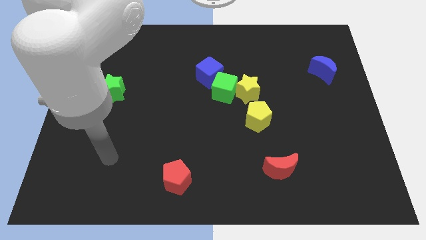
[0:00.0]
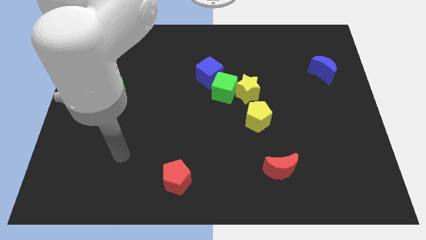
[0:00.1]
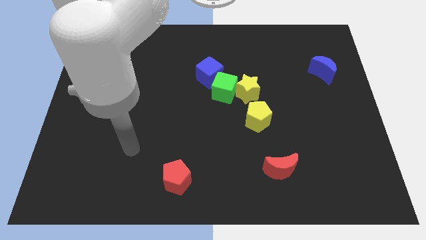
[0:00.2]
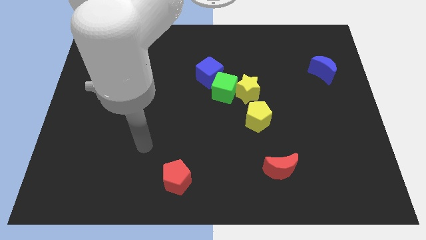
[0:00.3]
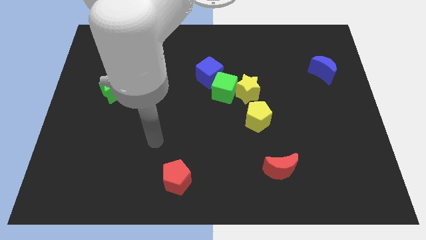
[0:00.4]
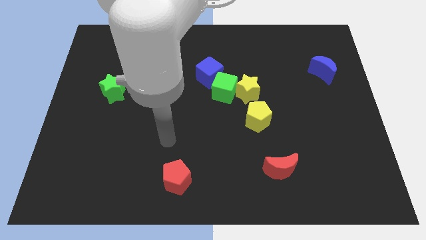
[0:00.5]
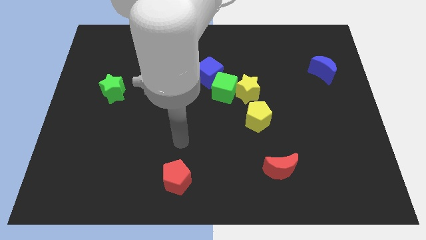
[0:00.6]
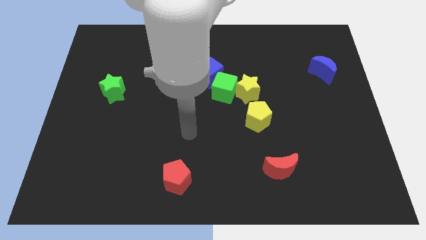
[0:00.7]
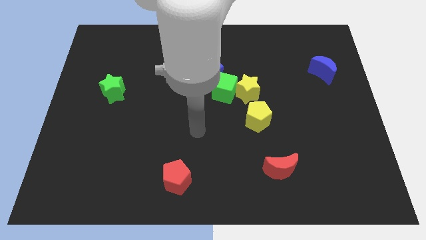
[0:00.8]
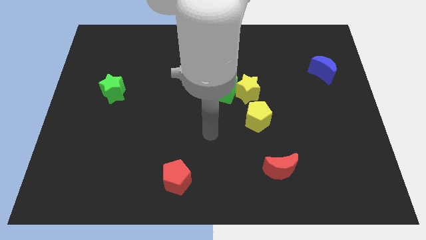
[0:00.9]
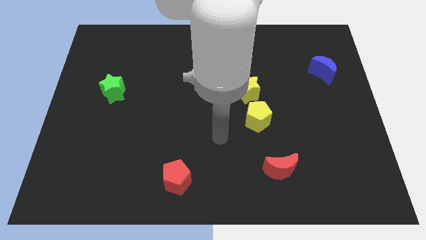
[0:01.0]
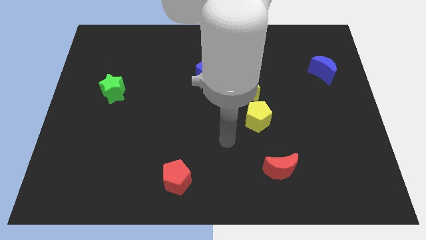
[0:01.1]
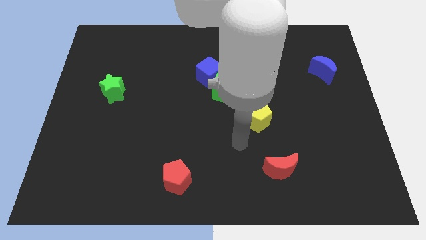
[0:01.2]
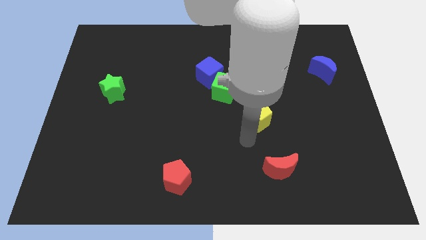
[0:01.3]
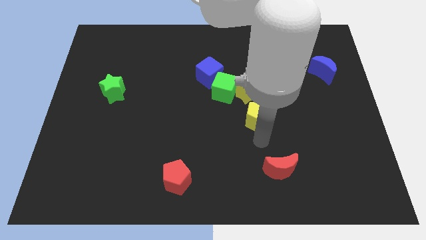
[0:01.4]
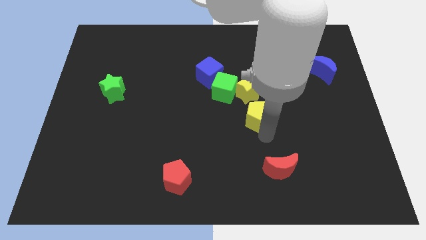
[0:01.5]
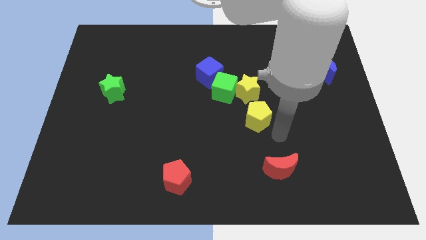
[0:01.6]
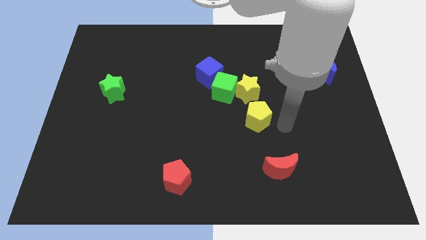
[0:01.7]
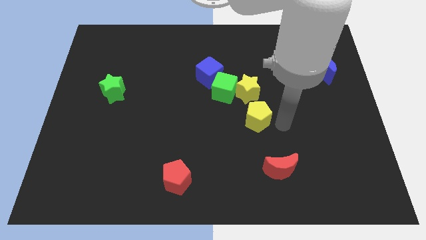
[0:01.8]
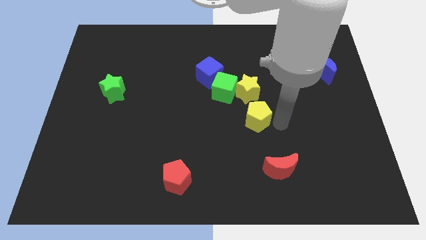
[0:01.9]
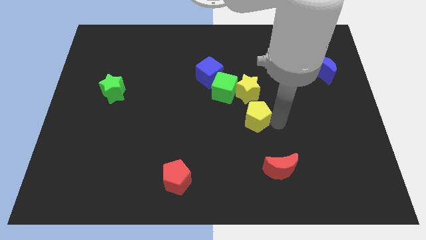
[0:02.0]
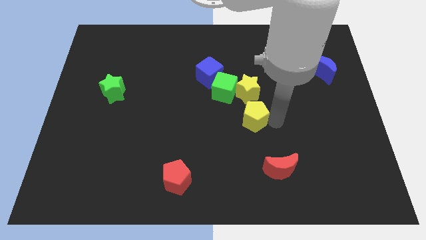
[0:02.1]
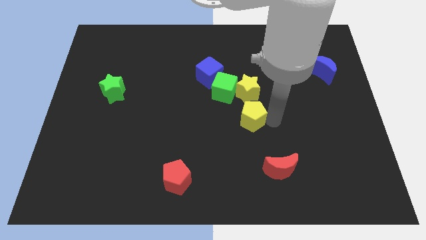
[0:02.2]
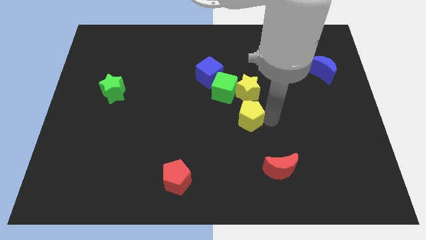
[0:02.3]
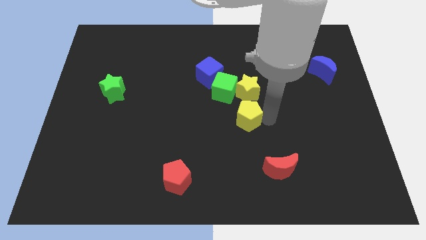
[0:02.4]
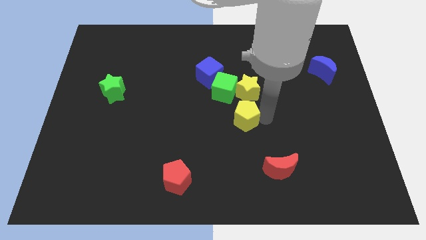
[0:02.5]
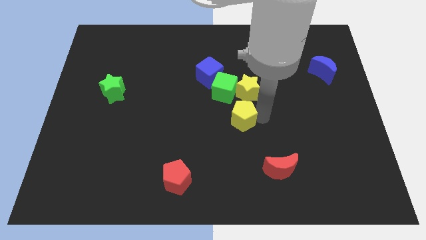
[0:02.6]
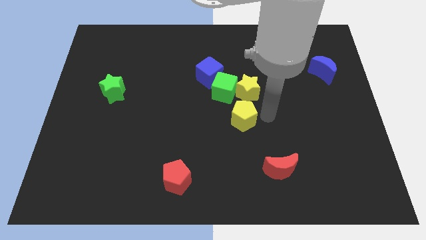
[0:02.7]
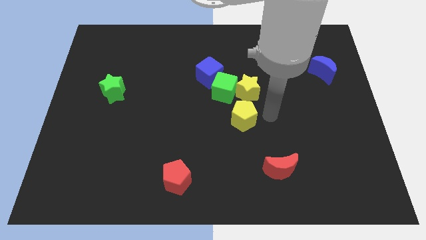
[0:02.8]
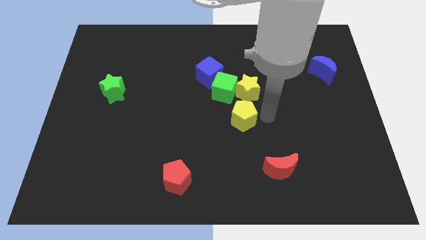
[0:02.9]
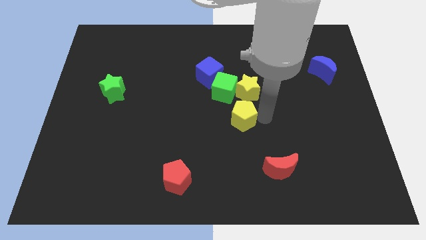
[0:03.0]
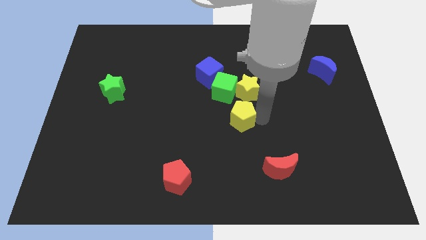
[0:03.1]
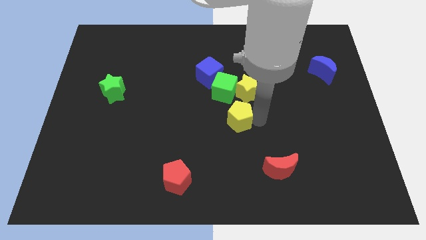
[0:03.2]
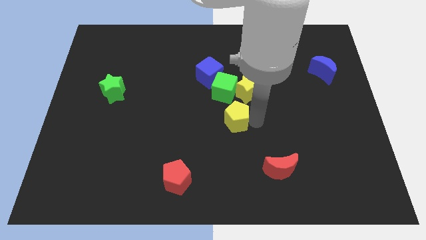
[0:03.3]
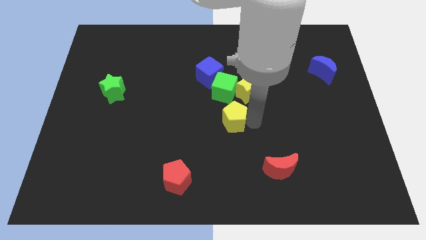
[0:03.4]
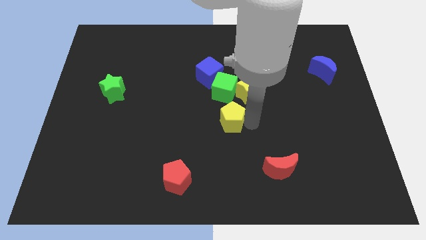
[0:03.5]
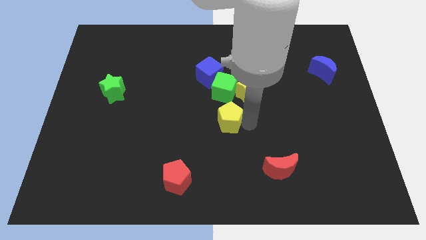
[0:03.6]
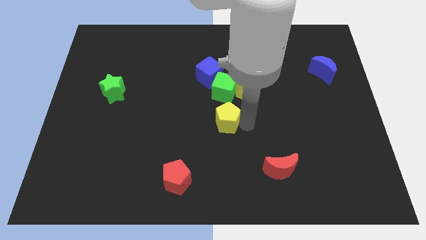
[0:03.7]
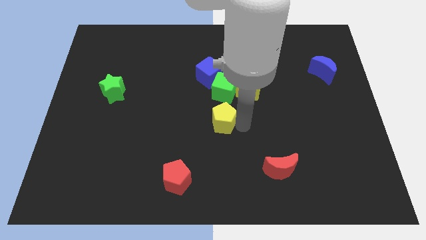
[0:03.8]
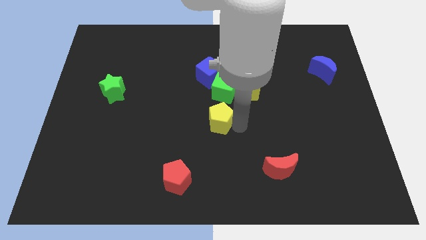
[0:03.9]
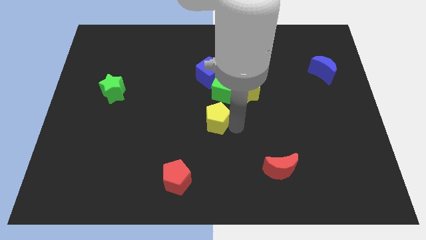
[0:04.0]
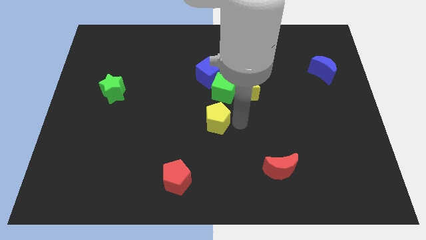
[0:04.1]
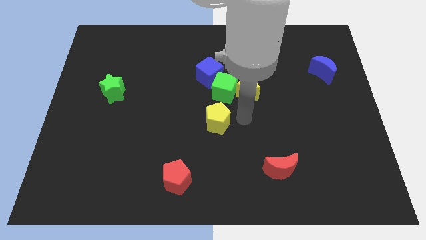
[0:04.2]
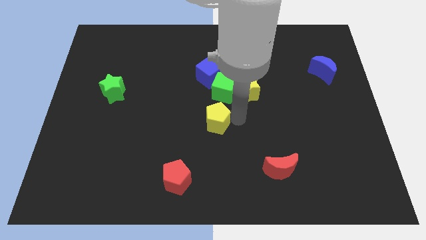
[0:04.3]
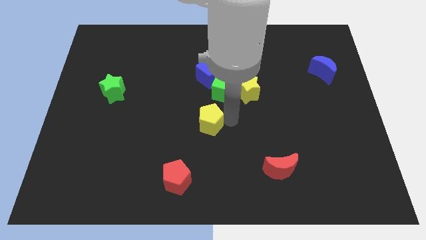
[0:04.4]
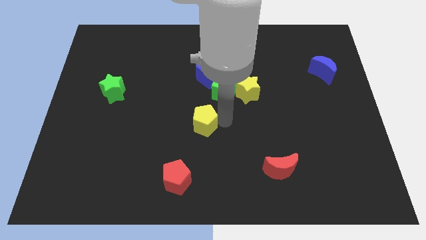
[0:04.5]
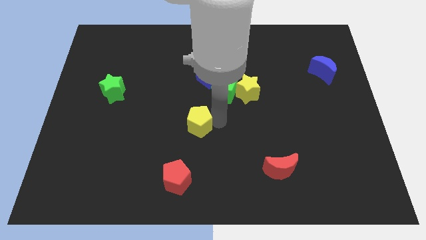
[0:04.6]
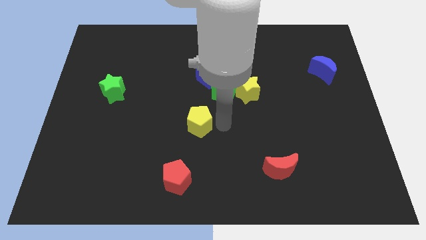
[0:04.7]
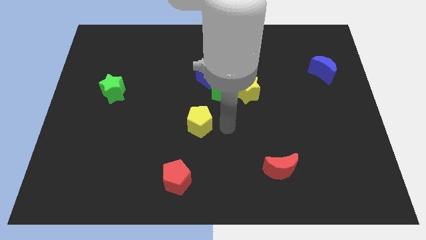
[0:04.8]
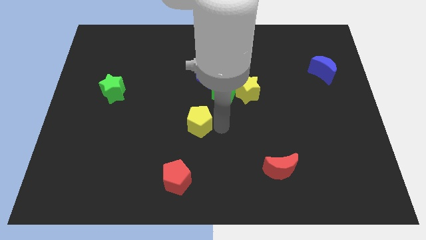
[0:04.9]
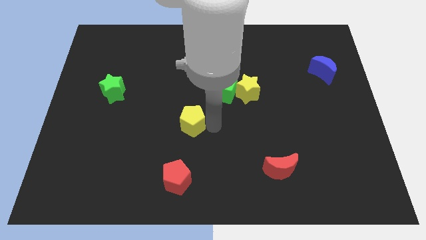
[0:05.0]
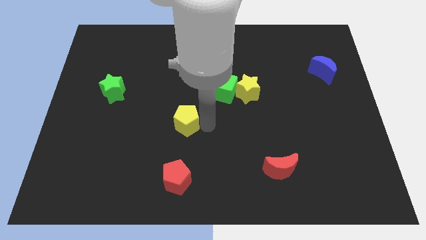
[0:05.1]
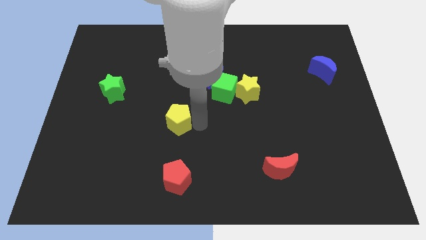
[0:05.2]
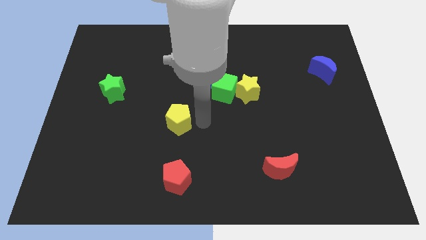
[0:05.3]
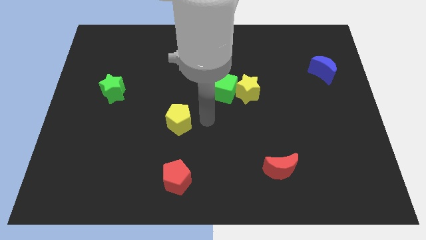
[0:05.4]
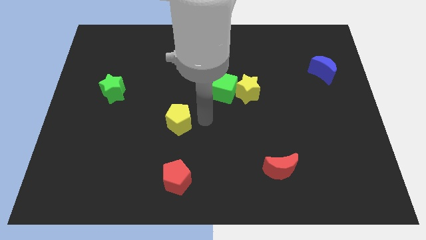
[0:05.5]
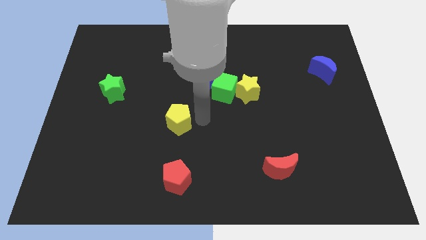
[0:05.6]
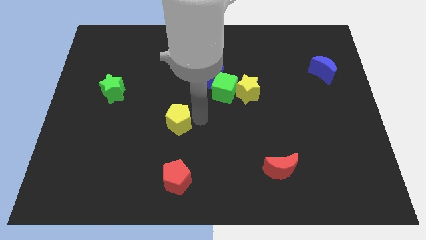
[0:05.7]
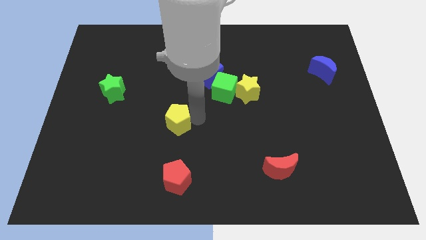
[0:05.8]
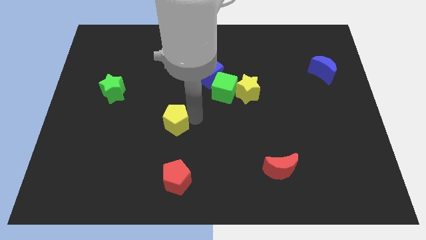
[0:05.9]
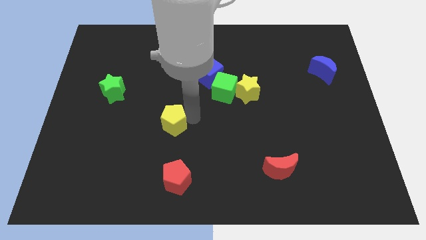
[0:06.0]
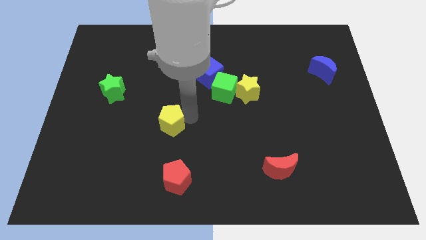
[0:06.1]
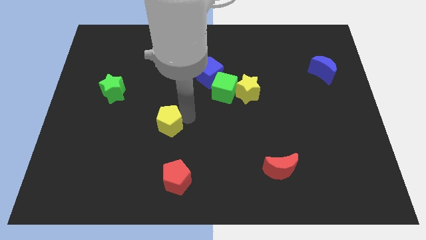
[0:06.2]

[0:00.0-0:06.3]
push the yellow pentagon left

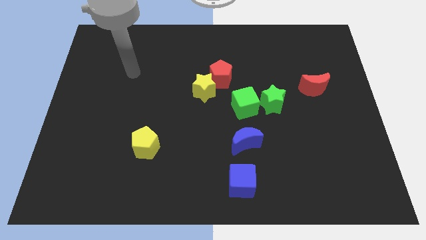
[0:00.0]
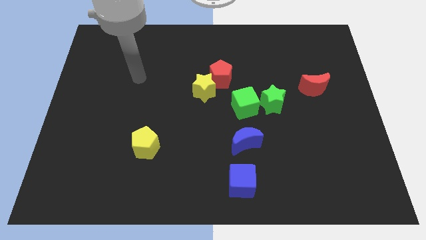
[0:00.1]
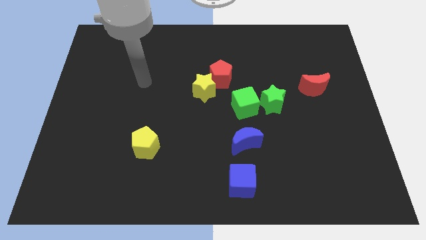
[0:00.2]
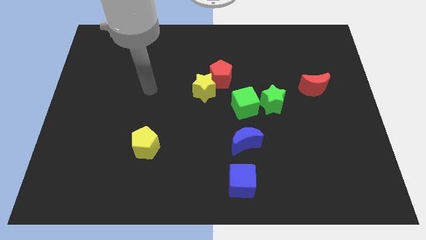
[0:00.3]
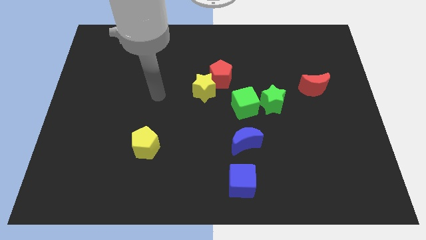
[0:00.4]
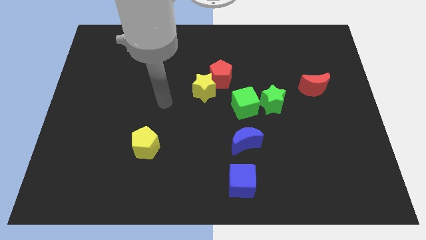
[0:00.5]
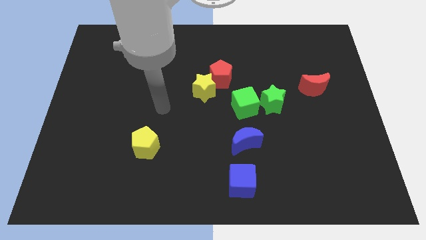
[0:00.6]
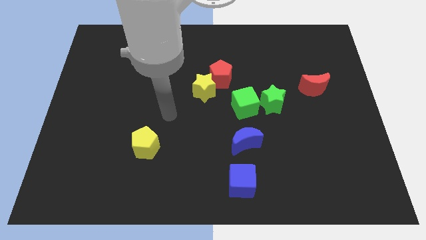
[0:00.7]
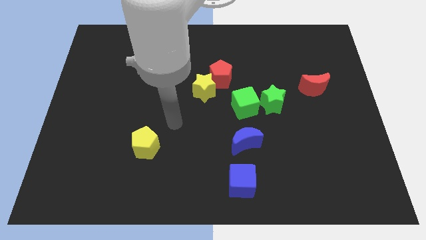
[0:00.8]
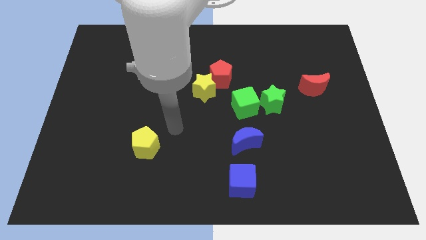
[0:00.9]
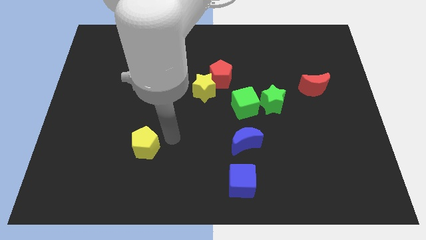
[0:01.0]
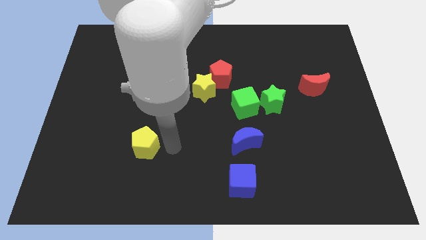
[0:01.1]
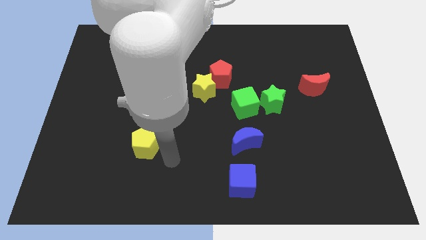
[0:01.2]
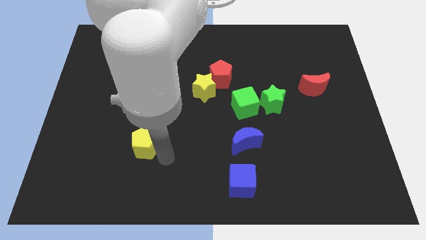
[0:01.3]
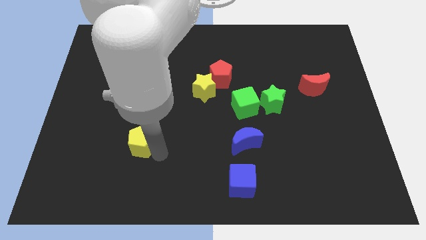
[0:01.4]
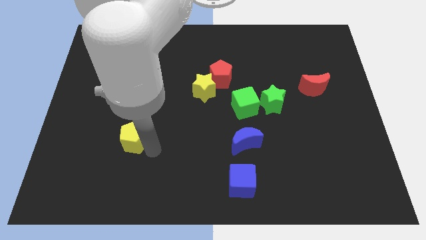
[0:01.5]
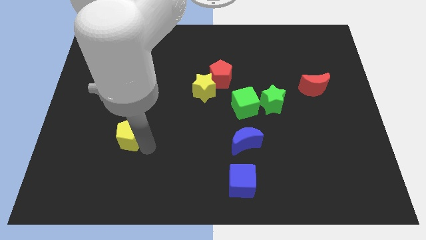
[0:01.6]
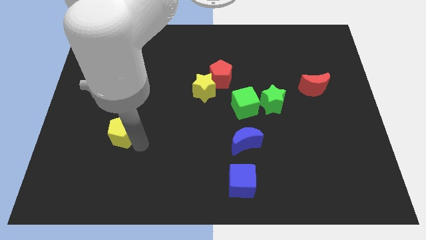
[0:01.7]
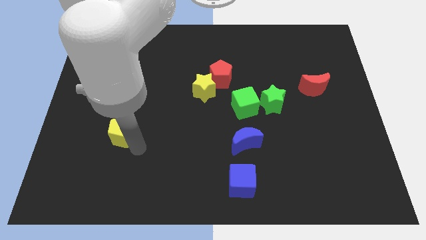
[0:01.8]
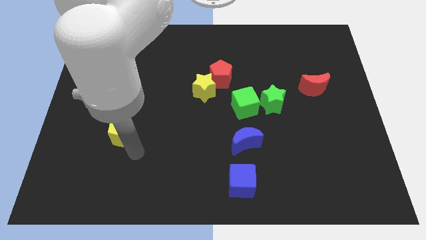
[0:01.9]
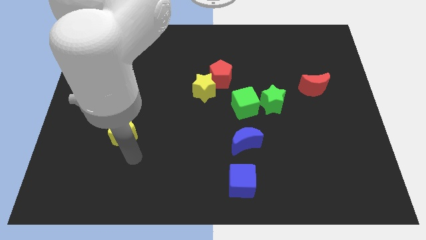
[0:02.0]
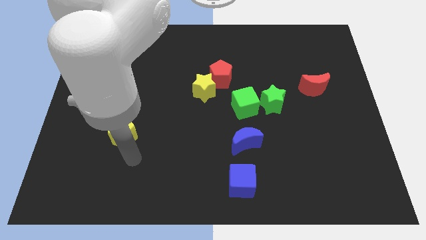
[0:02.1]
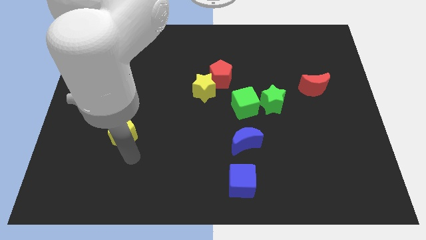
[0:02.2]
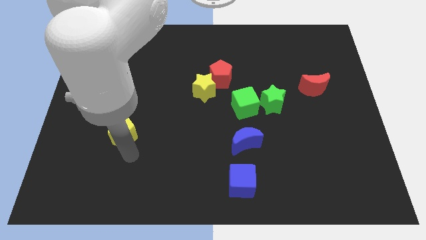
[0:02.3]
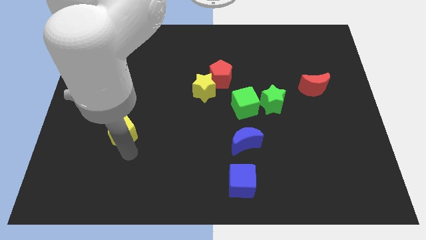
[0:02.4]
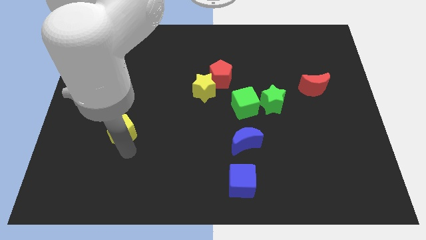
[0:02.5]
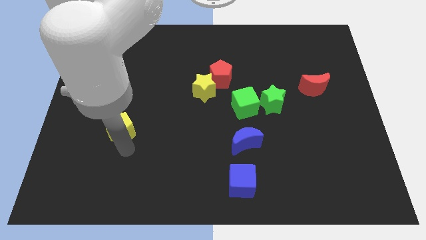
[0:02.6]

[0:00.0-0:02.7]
move the yellow pentagon slightly up and then left
